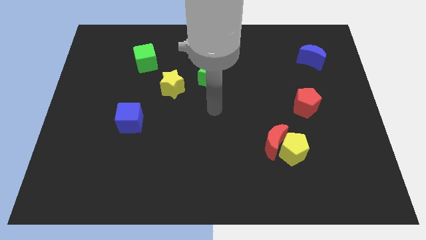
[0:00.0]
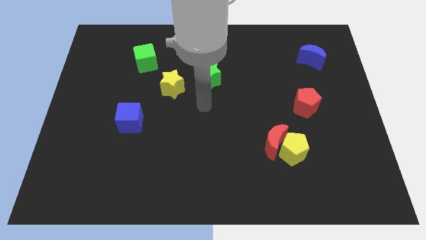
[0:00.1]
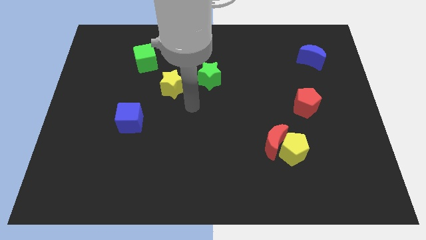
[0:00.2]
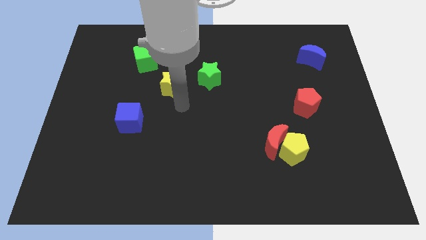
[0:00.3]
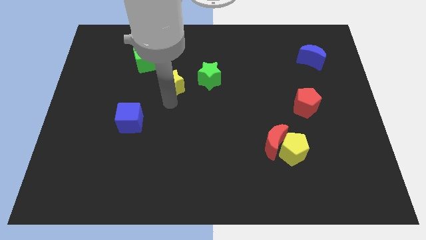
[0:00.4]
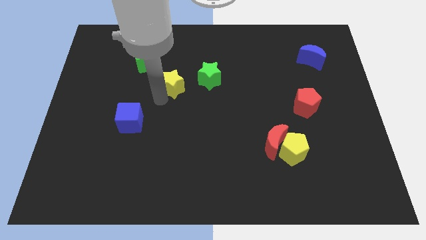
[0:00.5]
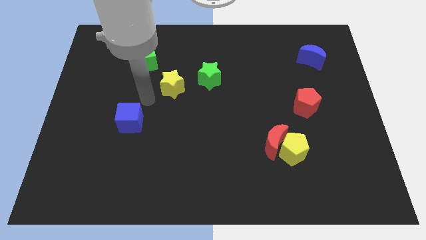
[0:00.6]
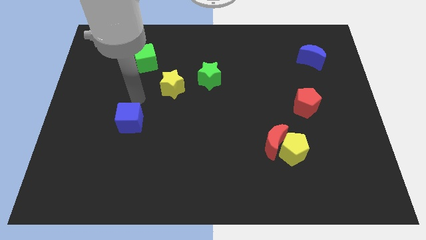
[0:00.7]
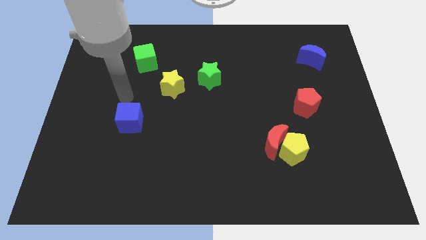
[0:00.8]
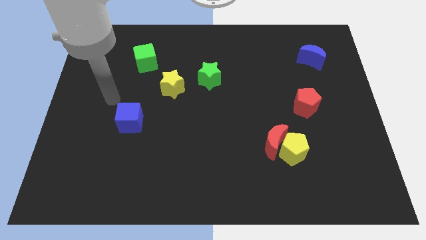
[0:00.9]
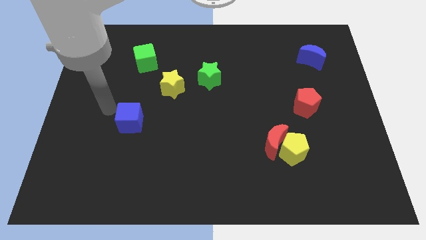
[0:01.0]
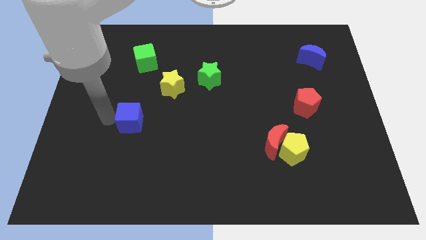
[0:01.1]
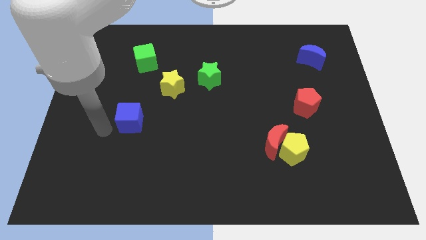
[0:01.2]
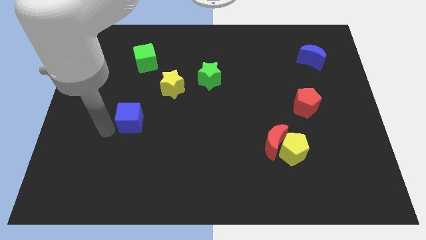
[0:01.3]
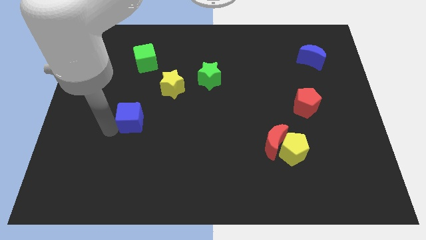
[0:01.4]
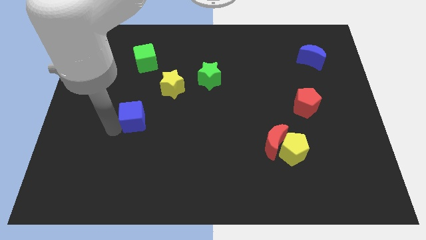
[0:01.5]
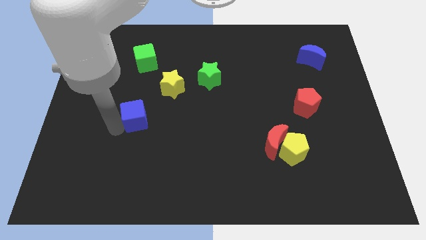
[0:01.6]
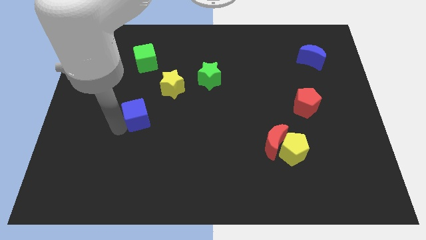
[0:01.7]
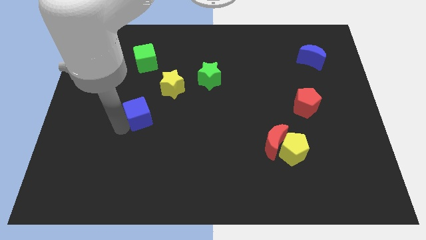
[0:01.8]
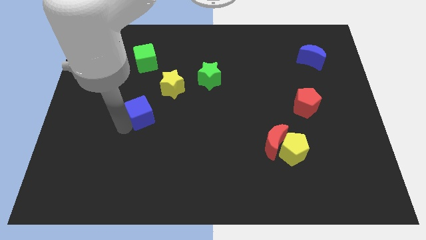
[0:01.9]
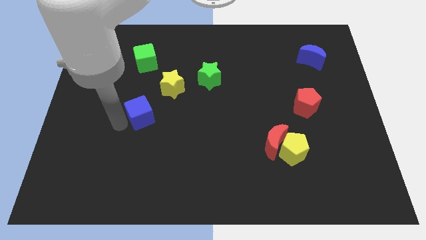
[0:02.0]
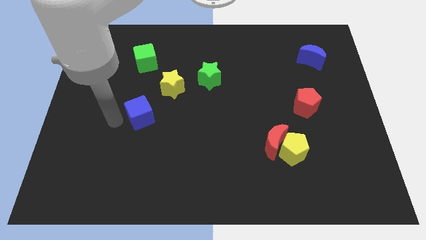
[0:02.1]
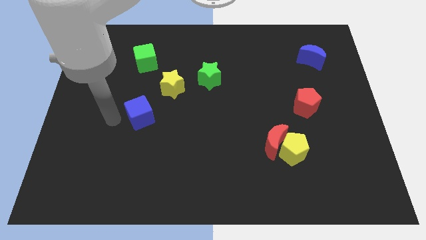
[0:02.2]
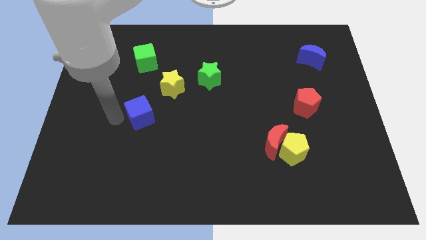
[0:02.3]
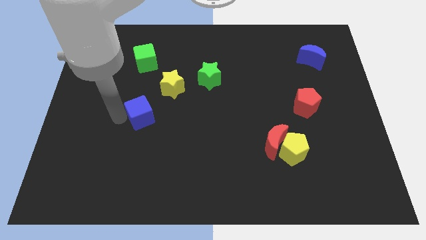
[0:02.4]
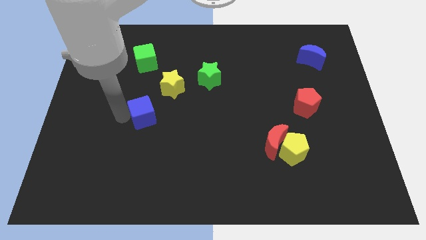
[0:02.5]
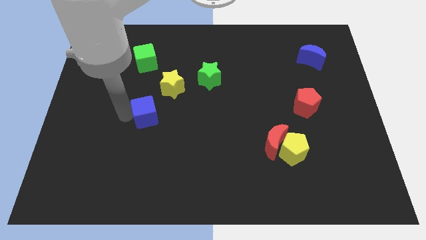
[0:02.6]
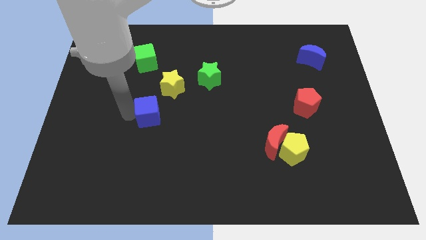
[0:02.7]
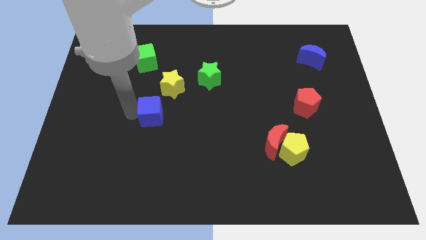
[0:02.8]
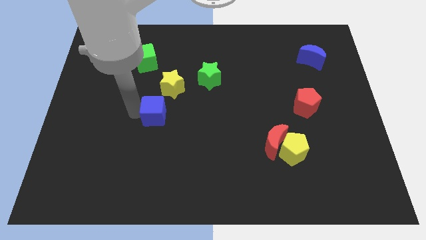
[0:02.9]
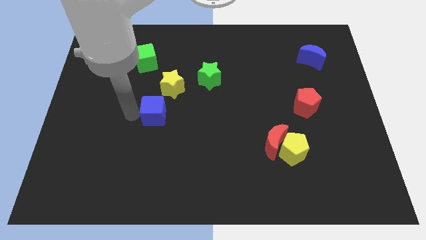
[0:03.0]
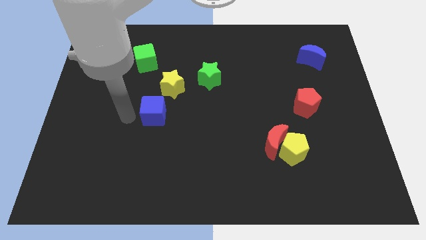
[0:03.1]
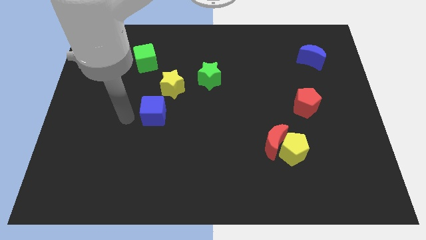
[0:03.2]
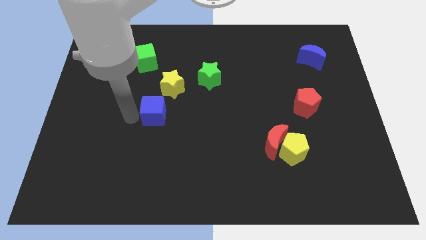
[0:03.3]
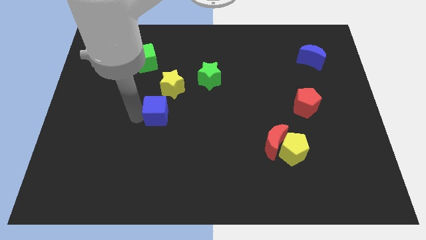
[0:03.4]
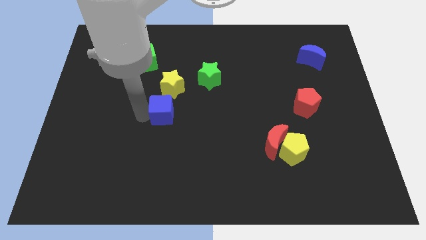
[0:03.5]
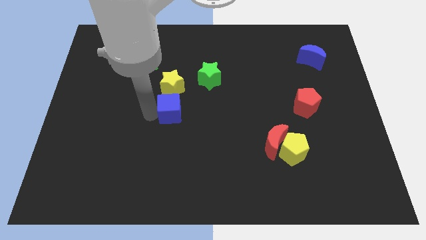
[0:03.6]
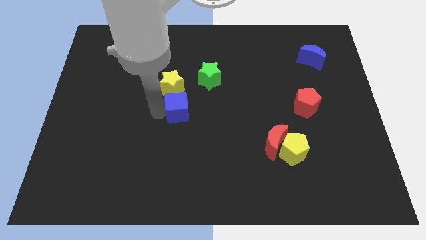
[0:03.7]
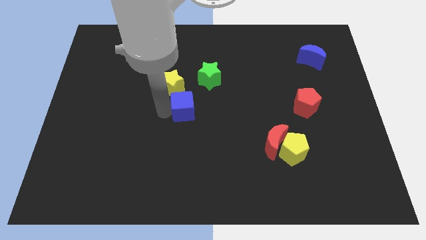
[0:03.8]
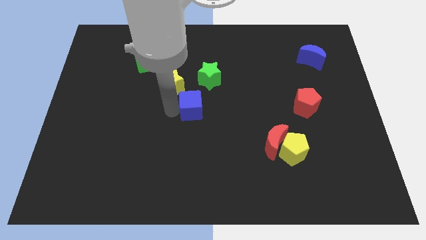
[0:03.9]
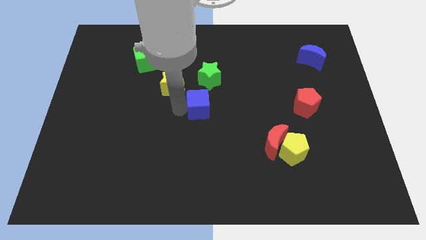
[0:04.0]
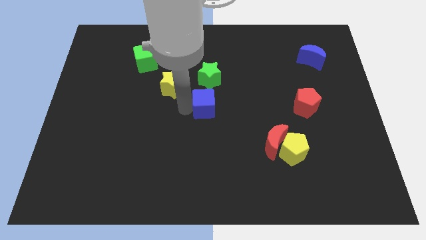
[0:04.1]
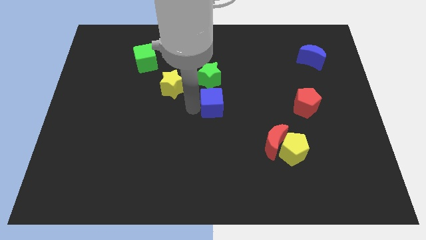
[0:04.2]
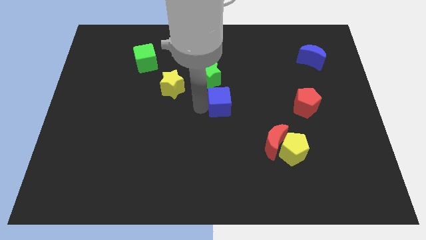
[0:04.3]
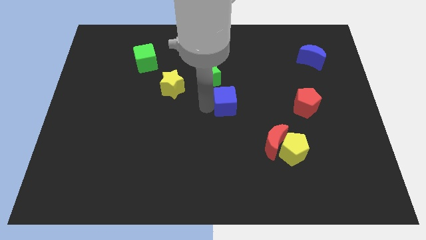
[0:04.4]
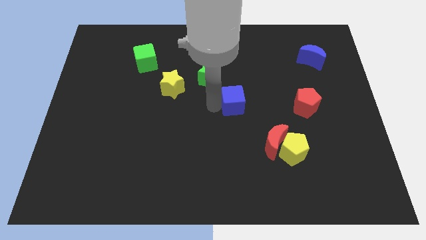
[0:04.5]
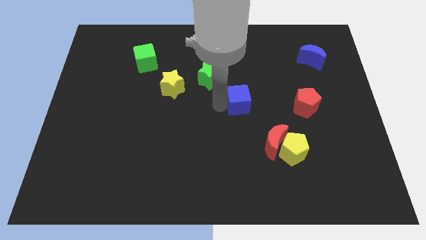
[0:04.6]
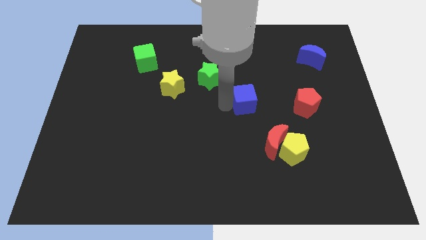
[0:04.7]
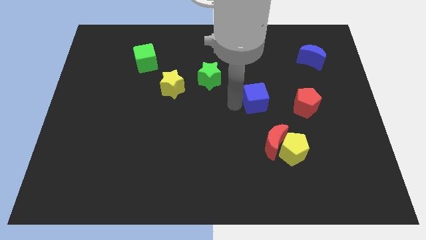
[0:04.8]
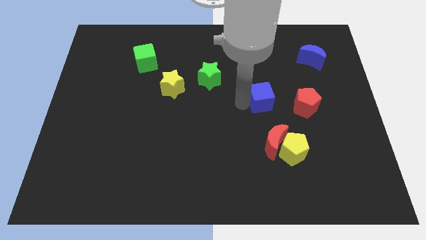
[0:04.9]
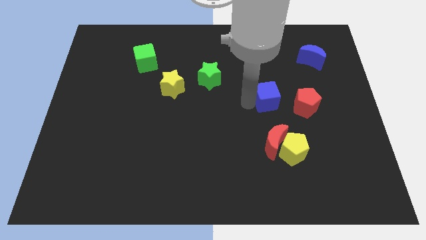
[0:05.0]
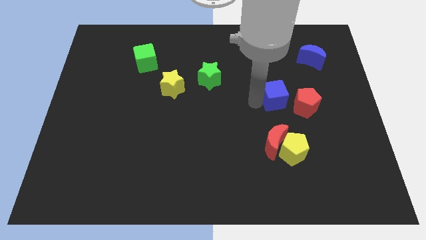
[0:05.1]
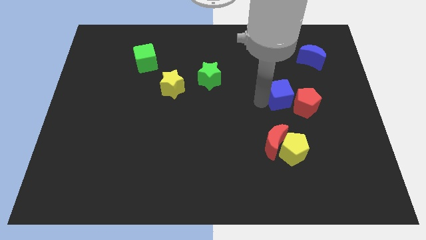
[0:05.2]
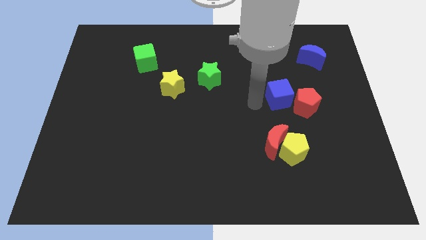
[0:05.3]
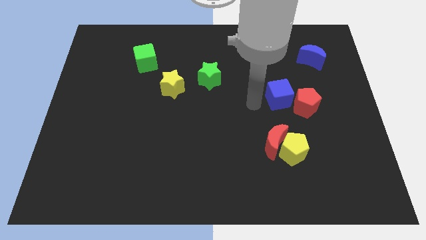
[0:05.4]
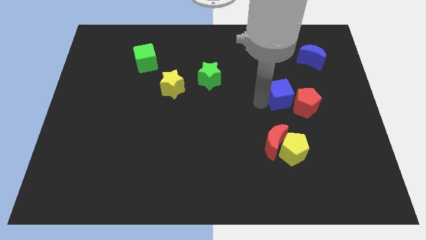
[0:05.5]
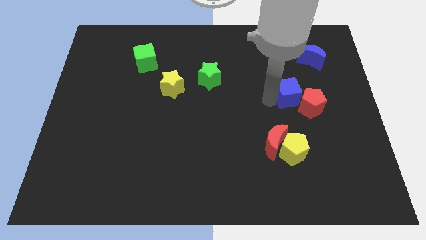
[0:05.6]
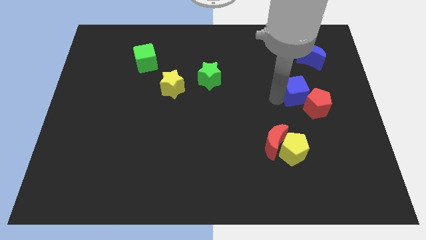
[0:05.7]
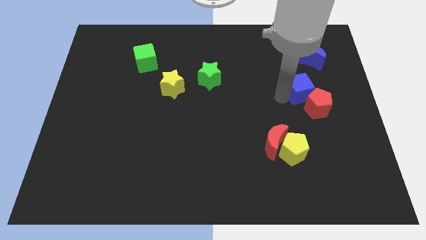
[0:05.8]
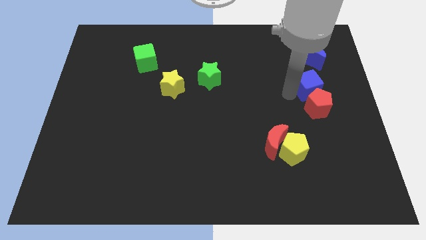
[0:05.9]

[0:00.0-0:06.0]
move the blue cube to the top right of the red pentagon
